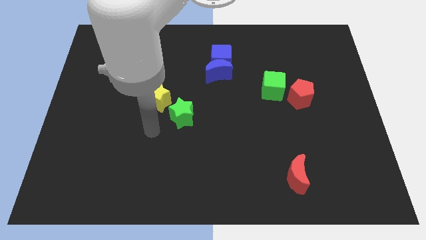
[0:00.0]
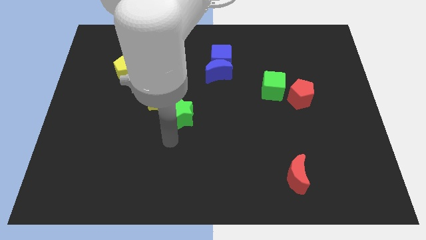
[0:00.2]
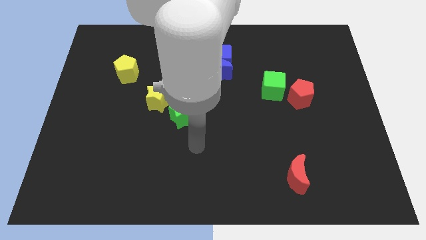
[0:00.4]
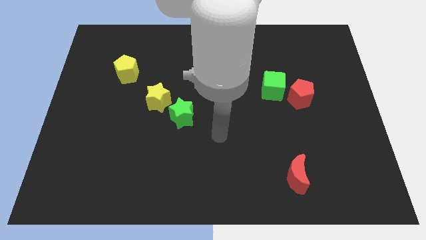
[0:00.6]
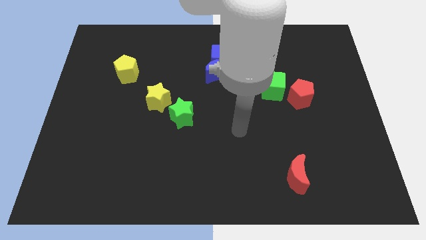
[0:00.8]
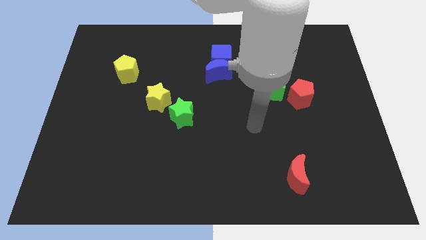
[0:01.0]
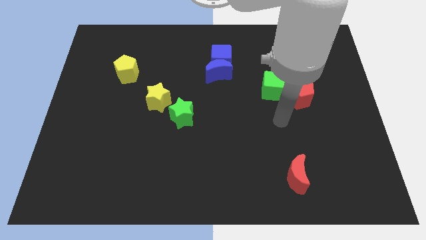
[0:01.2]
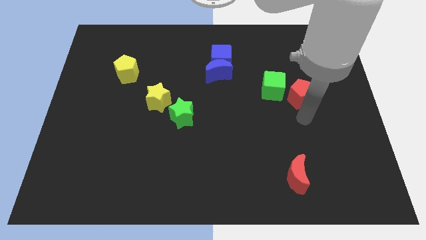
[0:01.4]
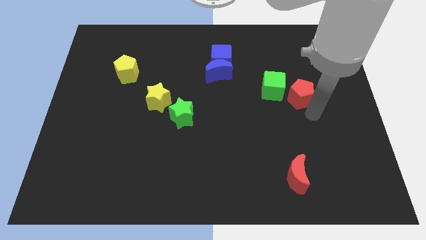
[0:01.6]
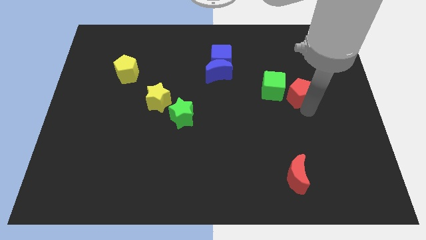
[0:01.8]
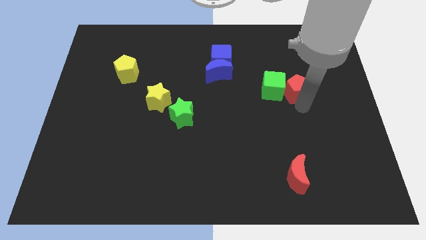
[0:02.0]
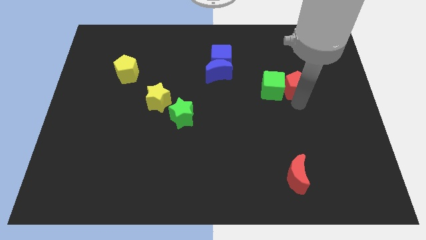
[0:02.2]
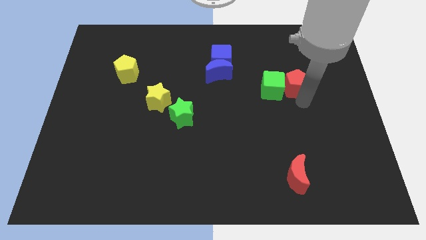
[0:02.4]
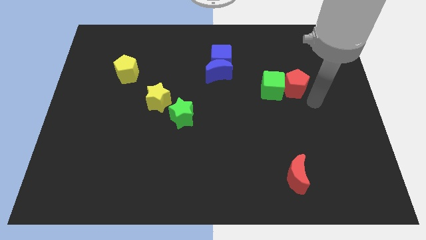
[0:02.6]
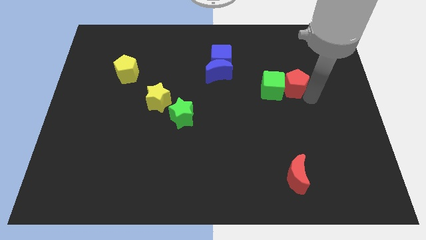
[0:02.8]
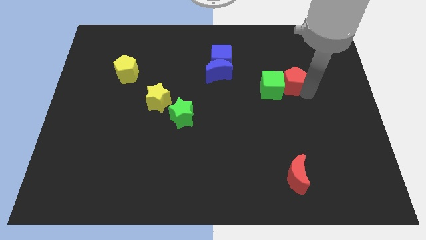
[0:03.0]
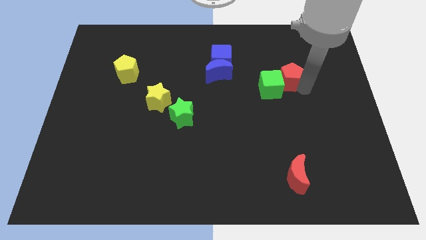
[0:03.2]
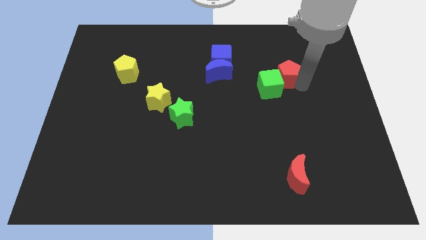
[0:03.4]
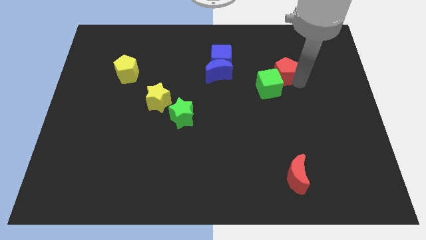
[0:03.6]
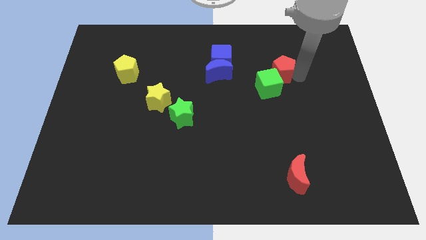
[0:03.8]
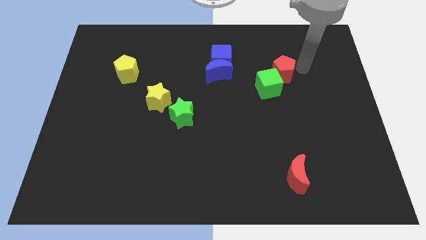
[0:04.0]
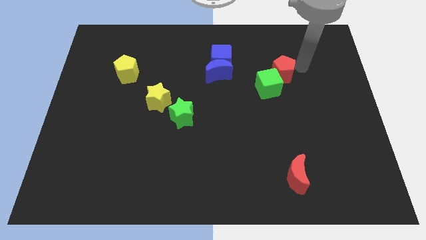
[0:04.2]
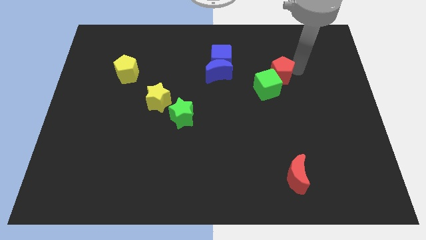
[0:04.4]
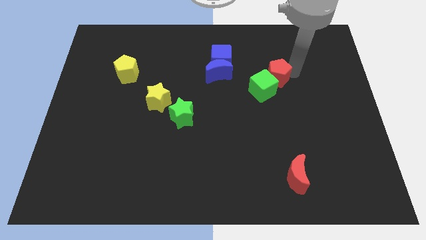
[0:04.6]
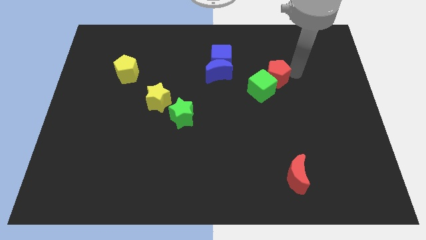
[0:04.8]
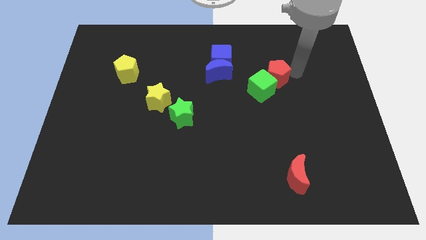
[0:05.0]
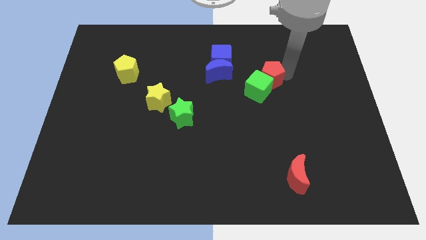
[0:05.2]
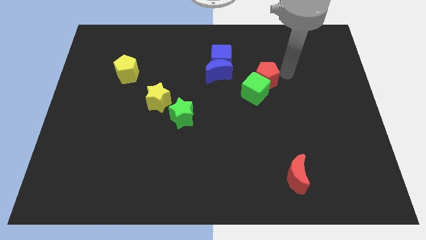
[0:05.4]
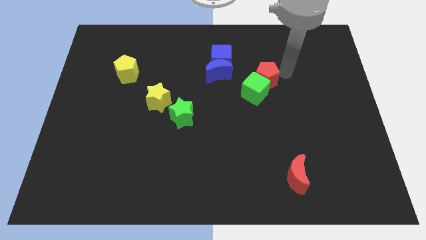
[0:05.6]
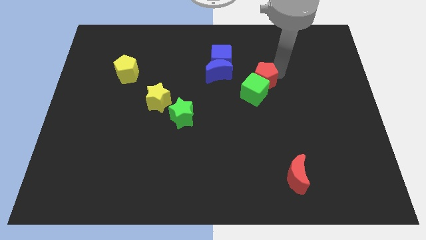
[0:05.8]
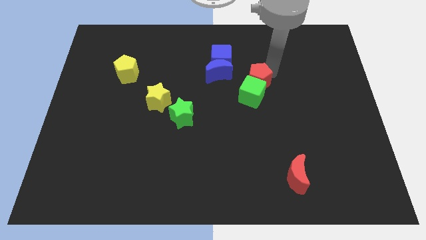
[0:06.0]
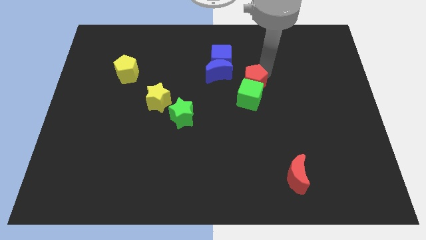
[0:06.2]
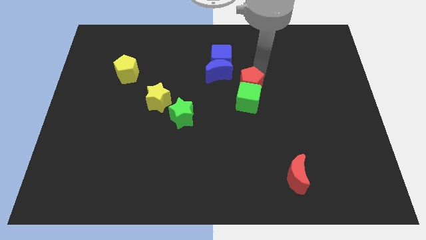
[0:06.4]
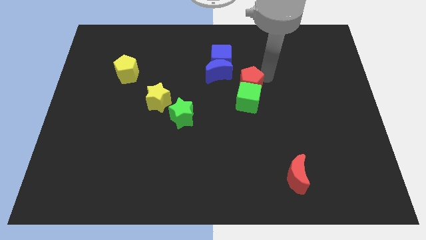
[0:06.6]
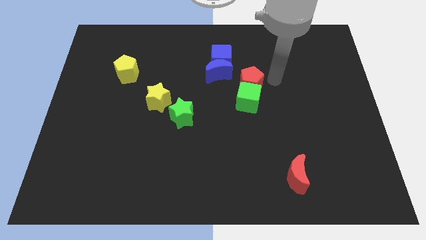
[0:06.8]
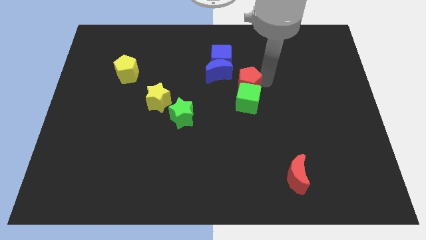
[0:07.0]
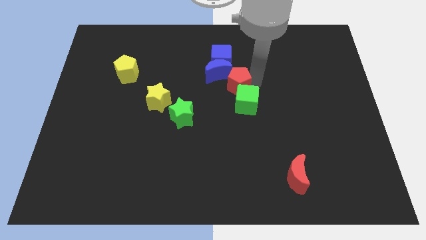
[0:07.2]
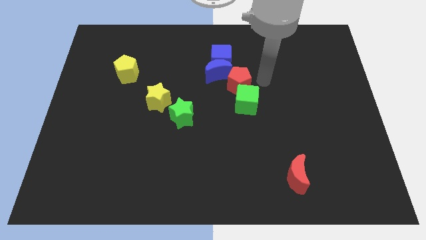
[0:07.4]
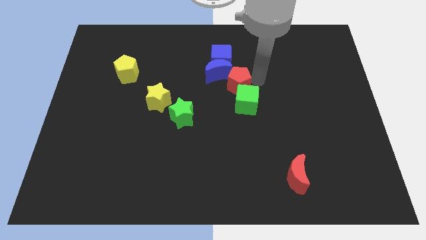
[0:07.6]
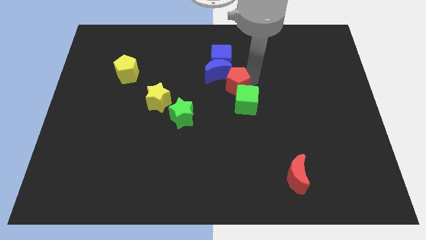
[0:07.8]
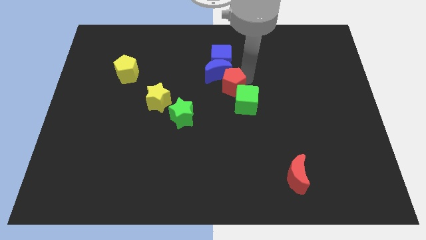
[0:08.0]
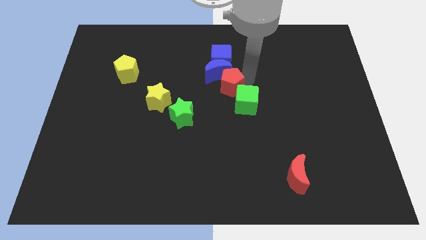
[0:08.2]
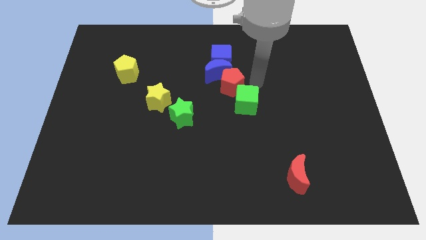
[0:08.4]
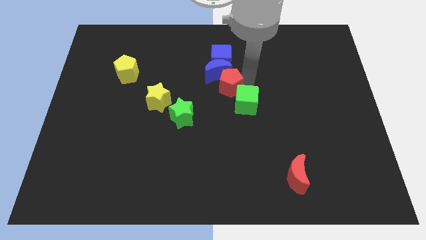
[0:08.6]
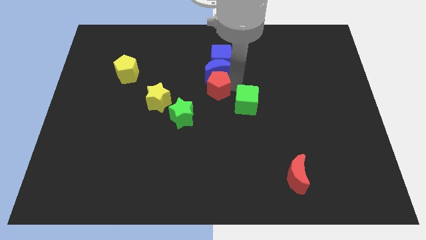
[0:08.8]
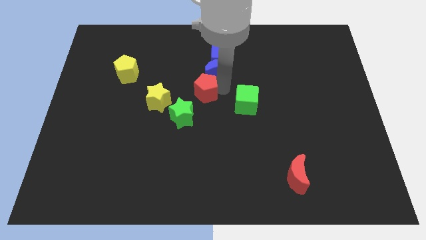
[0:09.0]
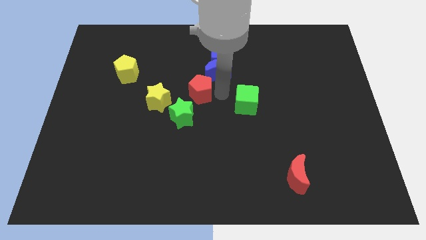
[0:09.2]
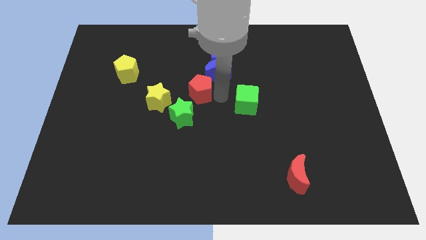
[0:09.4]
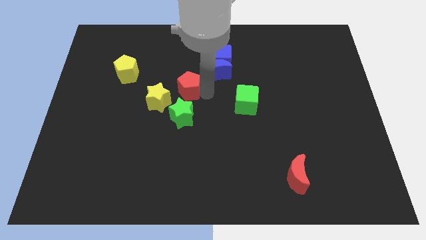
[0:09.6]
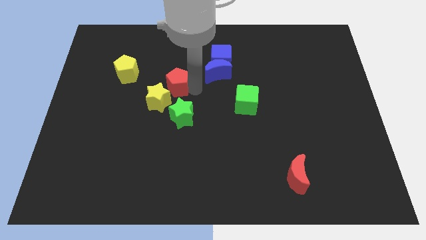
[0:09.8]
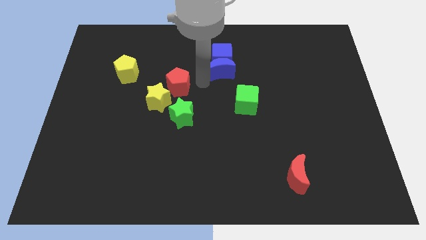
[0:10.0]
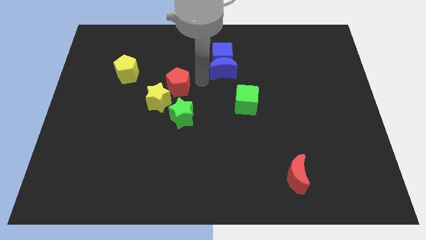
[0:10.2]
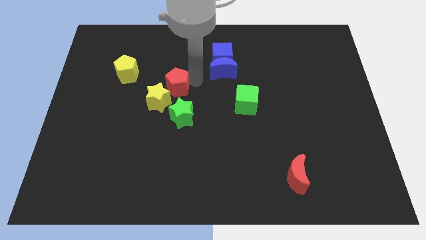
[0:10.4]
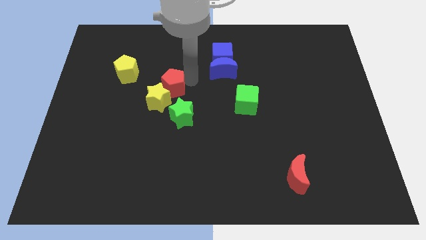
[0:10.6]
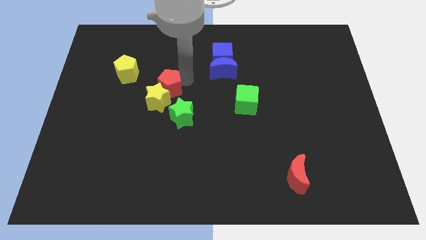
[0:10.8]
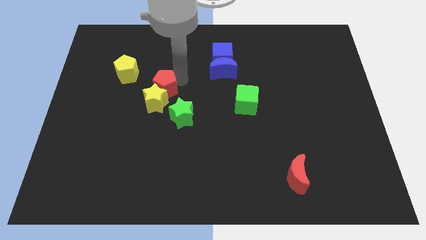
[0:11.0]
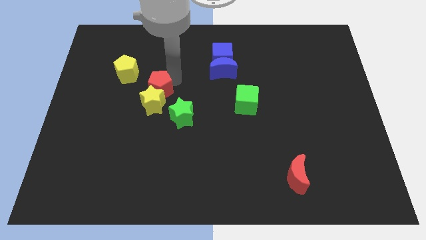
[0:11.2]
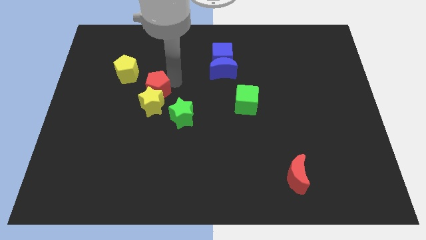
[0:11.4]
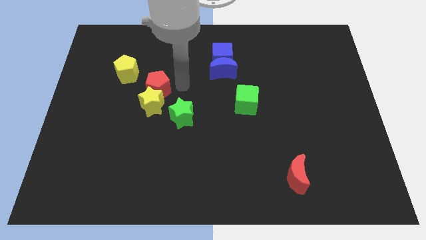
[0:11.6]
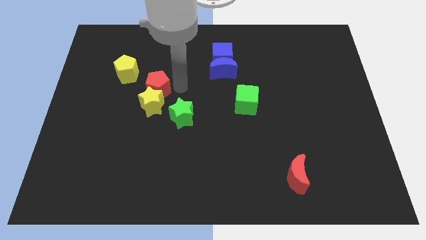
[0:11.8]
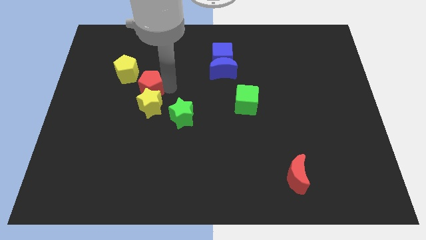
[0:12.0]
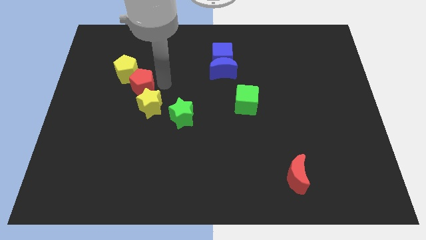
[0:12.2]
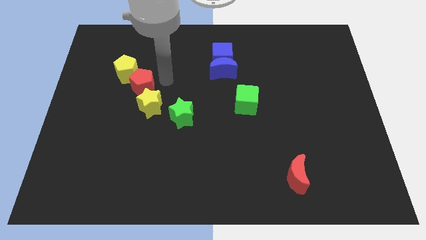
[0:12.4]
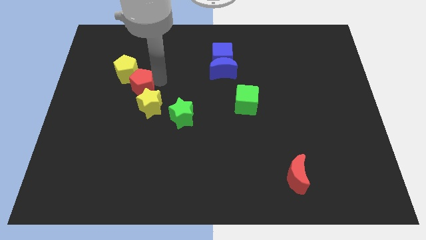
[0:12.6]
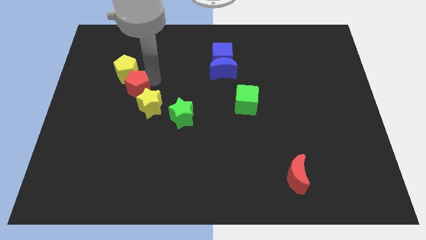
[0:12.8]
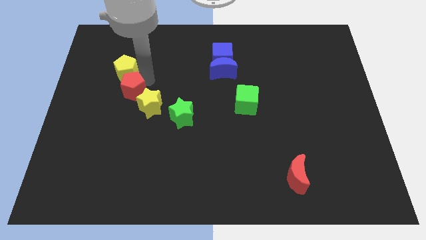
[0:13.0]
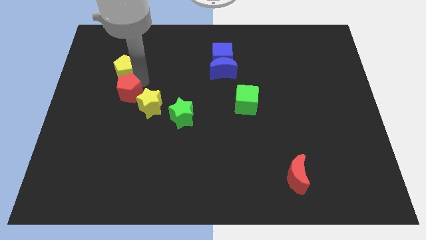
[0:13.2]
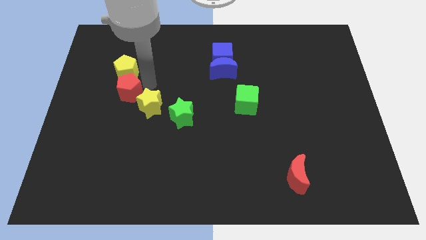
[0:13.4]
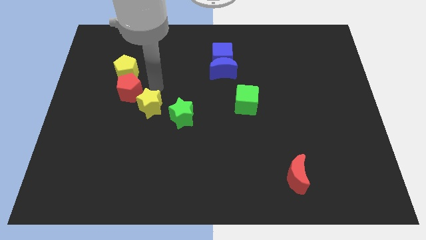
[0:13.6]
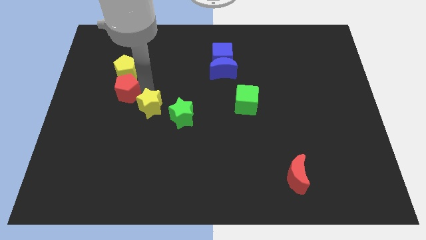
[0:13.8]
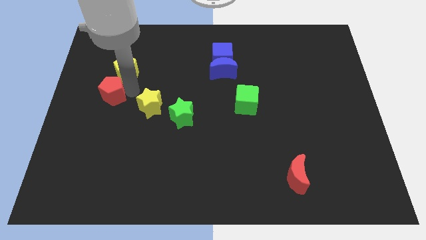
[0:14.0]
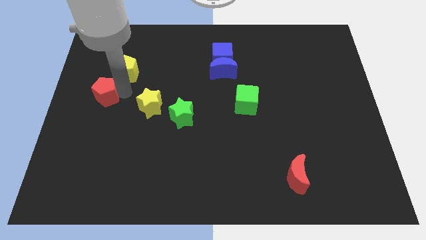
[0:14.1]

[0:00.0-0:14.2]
push the red pentagon to the left side
